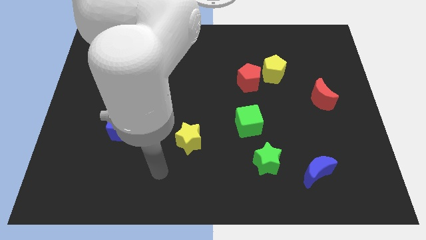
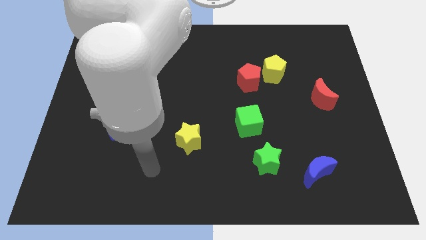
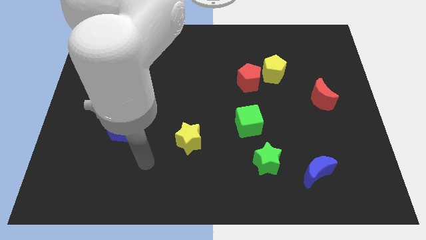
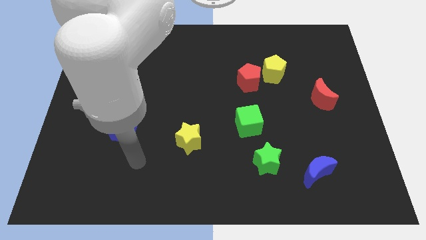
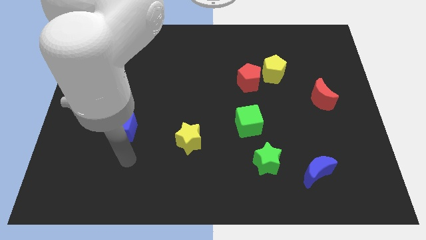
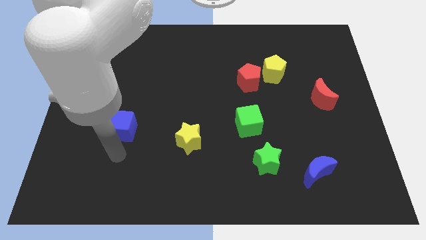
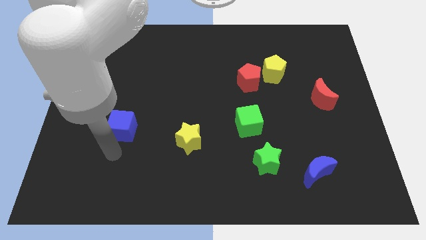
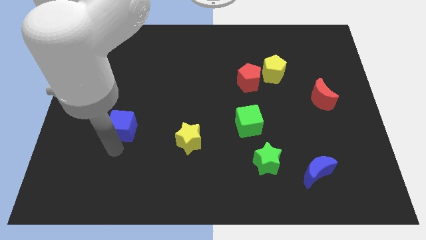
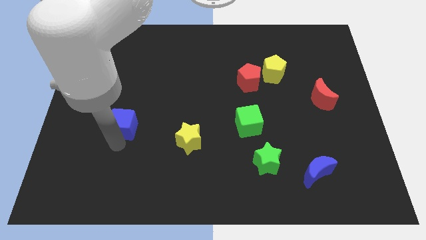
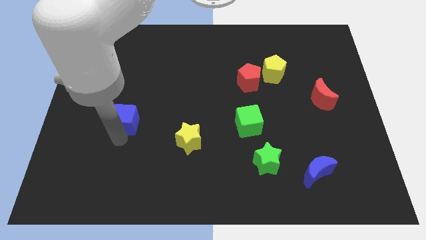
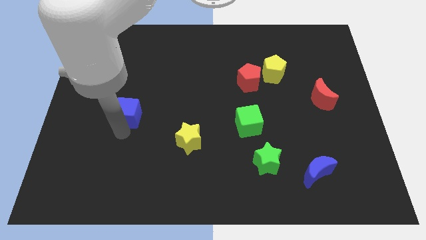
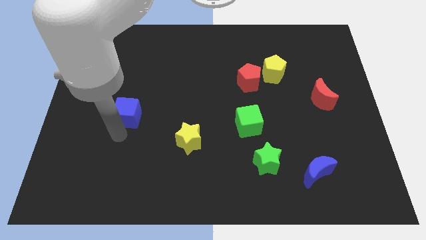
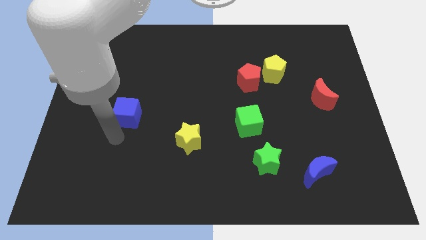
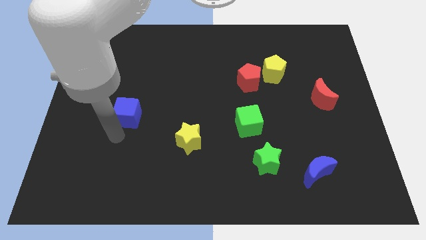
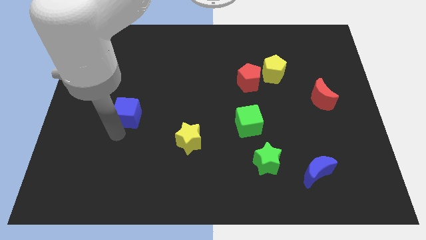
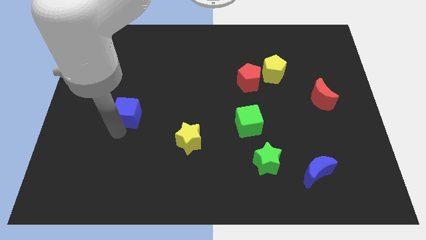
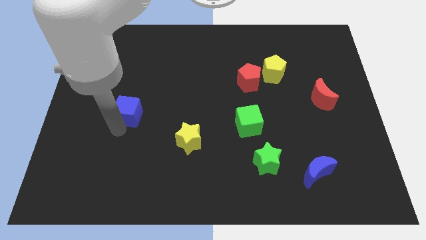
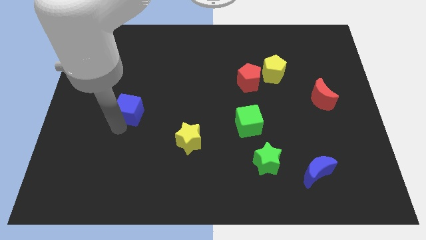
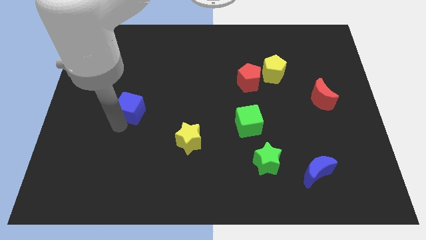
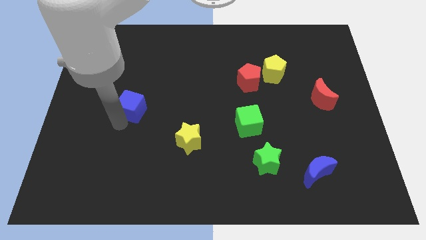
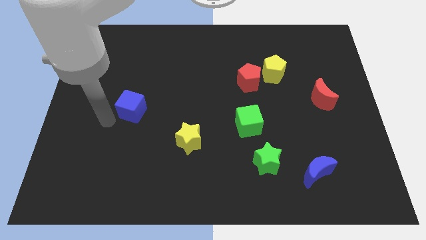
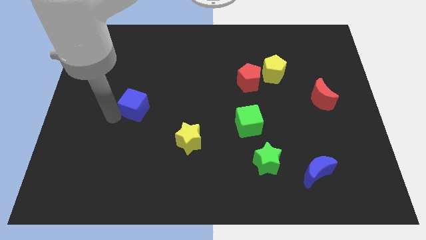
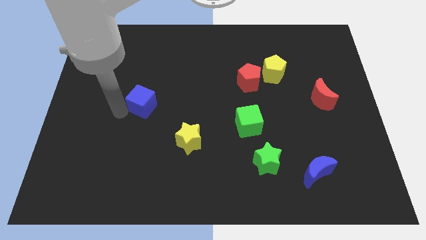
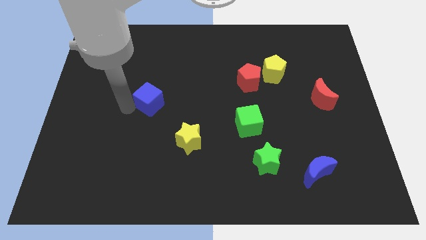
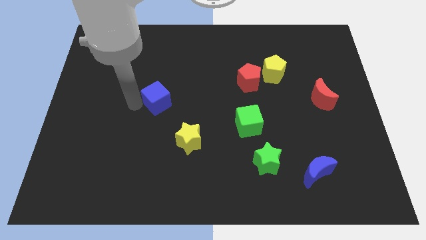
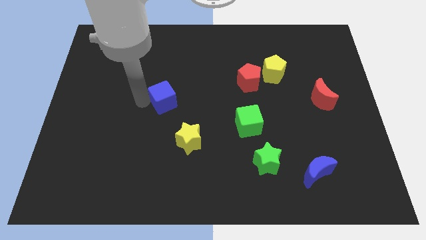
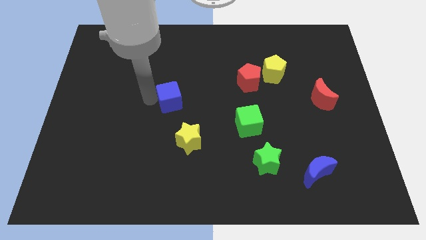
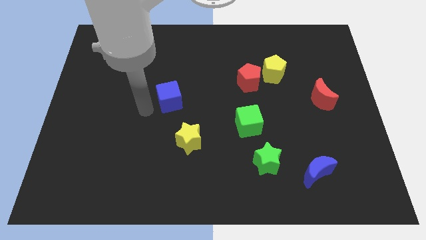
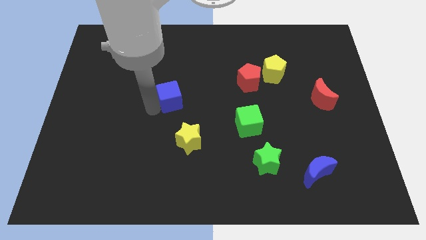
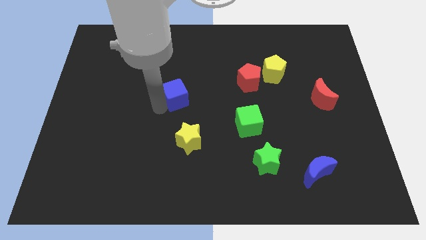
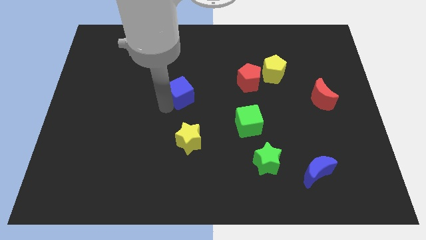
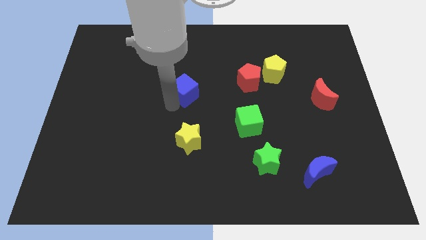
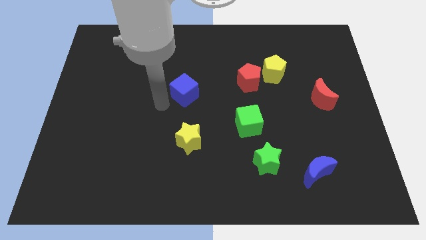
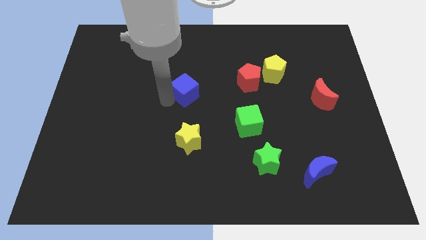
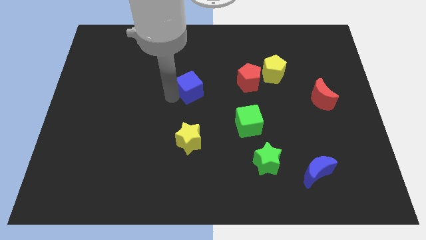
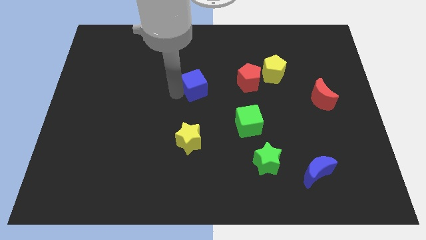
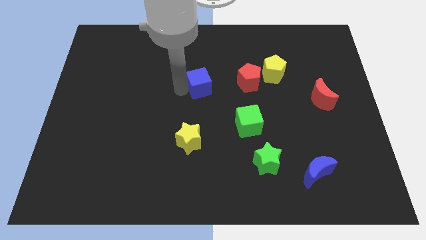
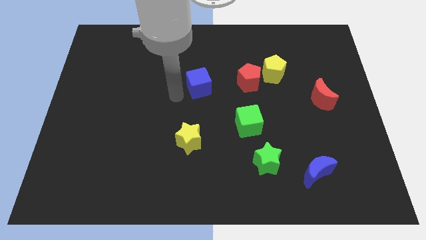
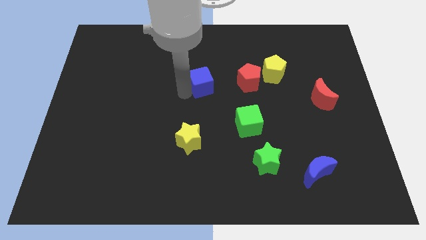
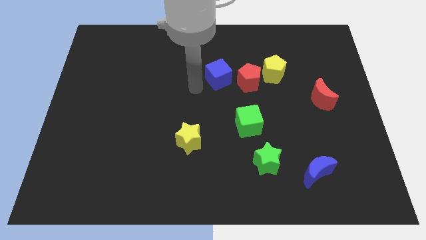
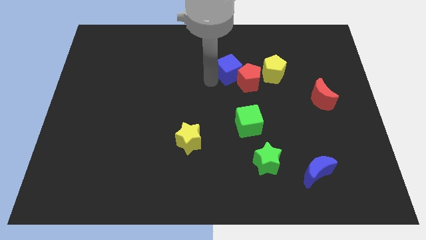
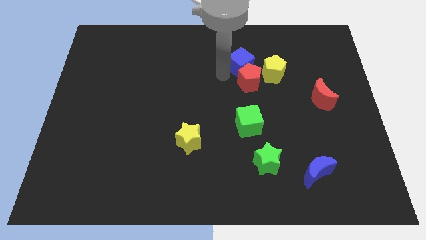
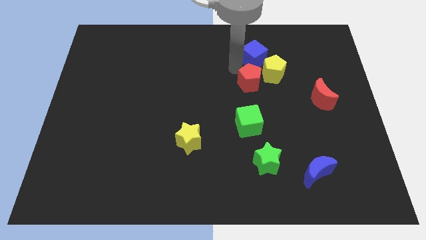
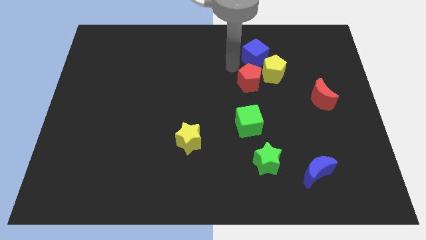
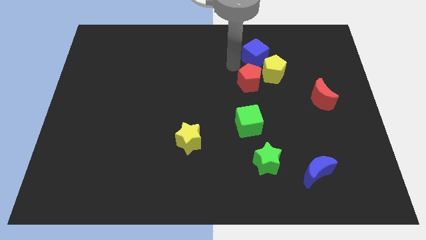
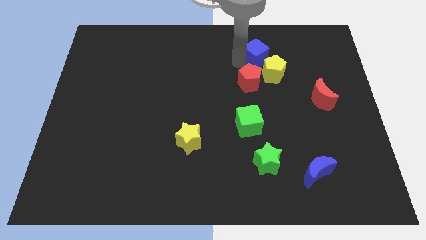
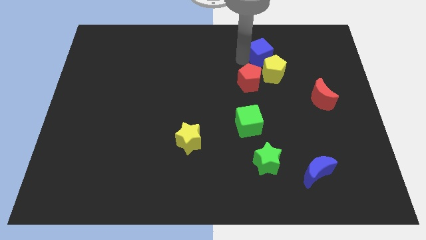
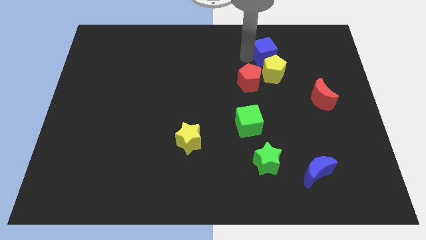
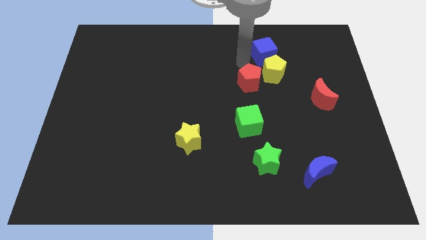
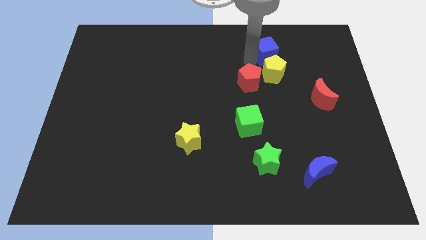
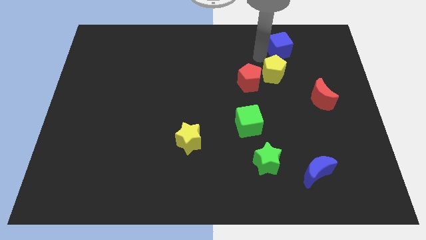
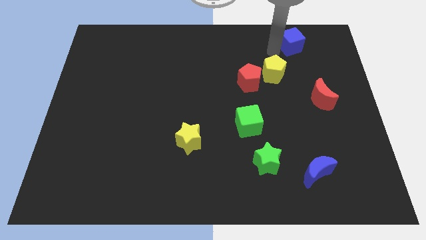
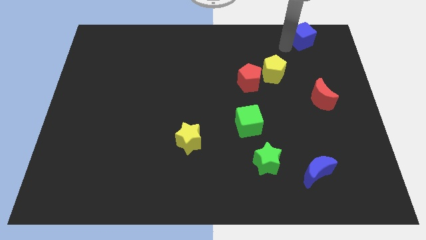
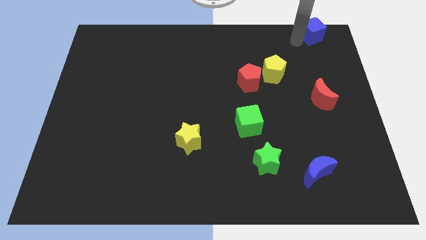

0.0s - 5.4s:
move the blue cube to the upper right corner

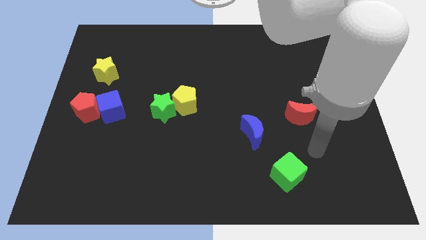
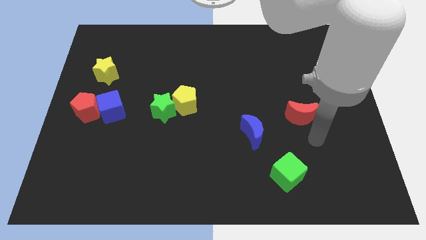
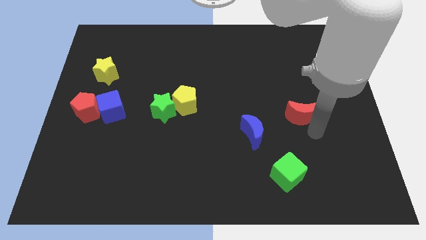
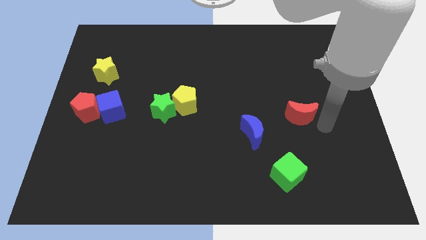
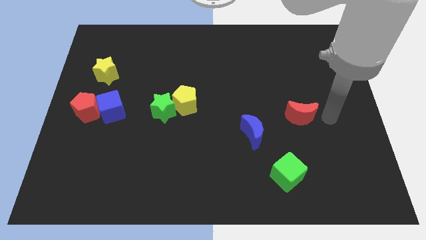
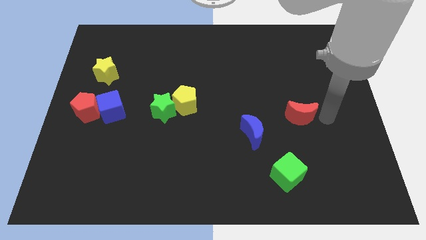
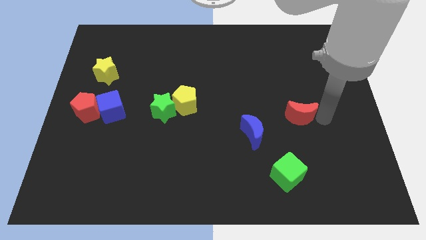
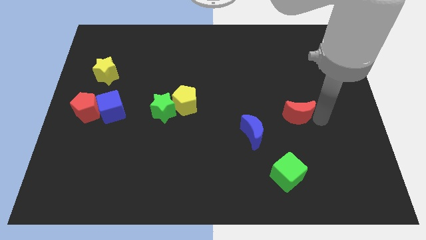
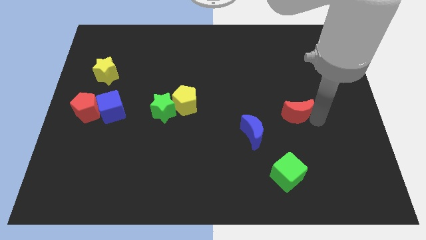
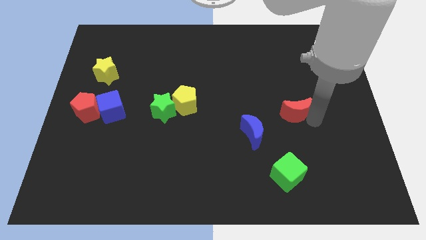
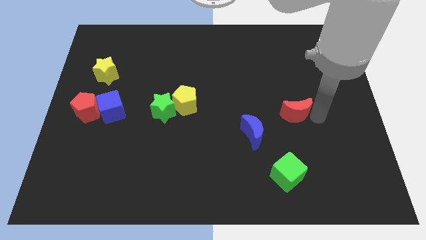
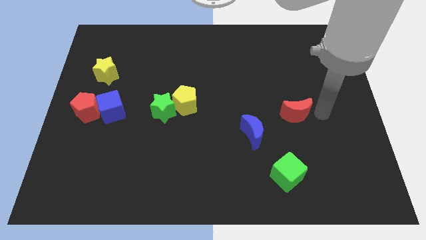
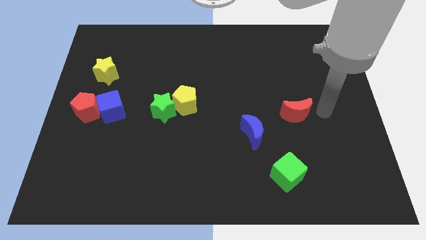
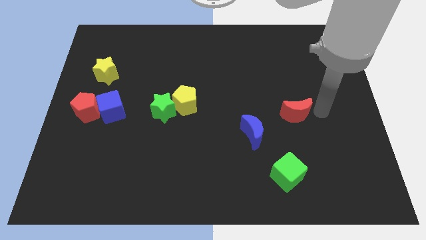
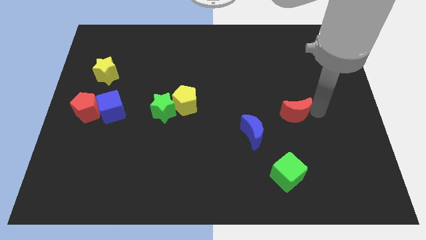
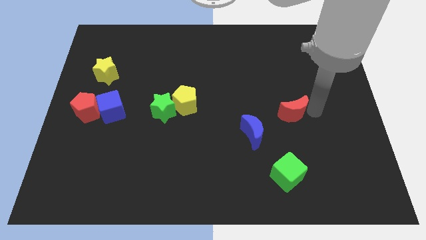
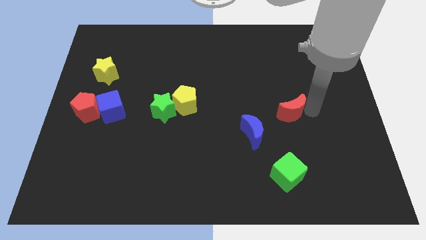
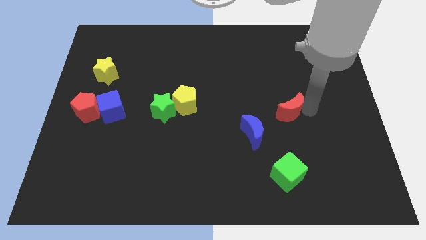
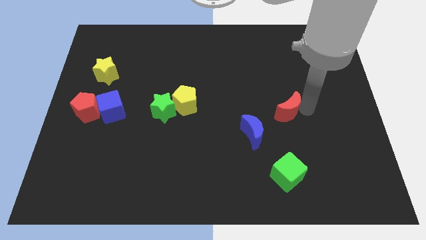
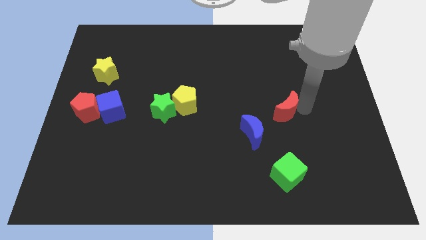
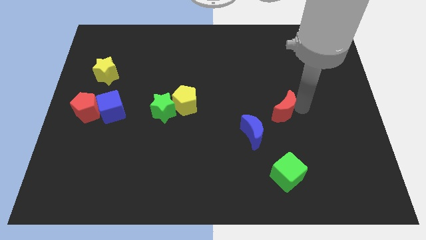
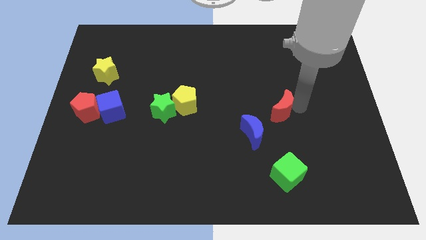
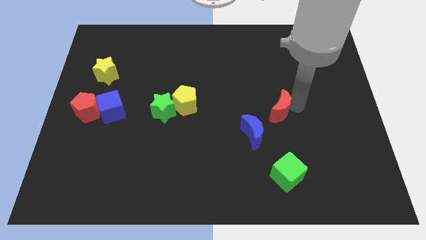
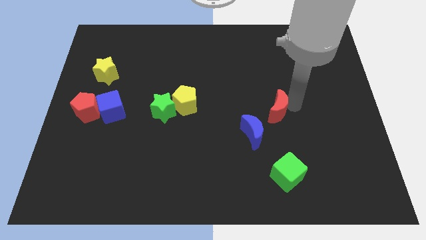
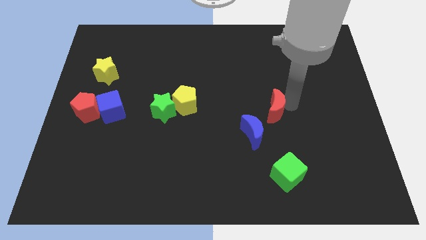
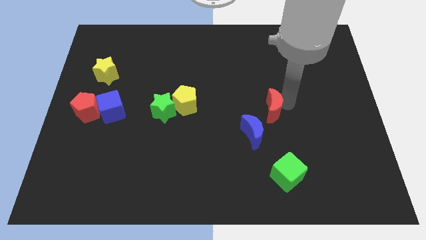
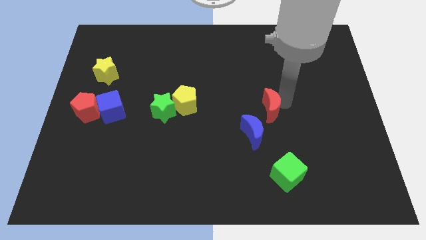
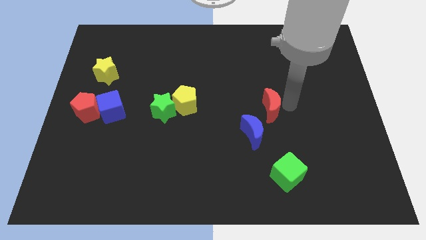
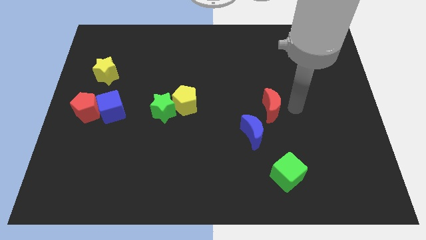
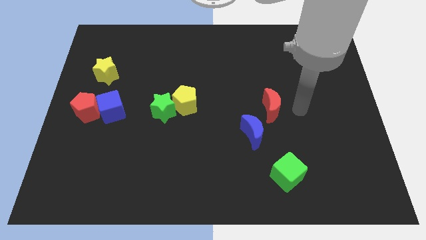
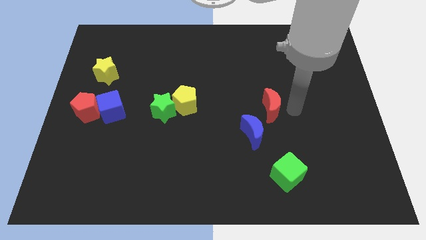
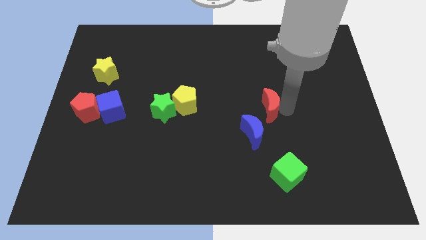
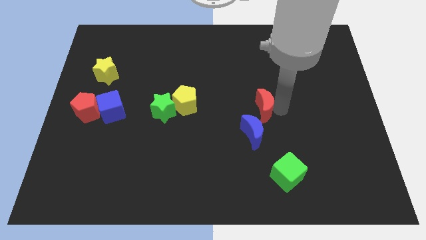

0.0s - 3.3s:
put the red moon to the middle of the board
